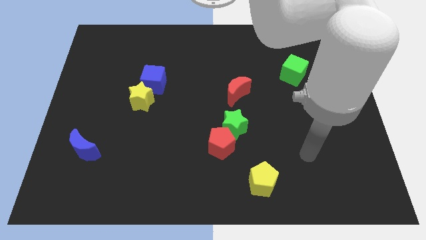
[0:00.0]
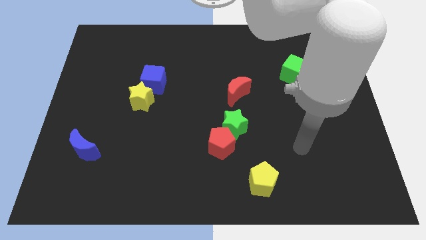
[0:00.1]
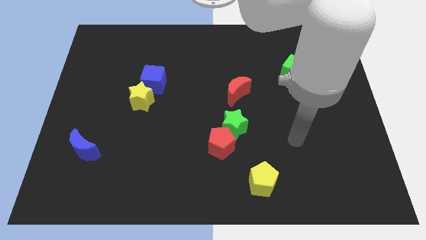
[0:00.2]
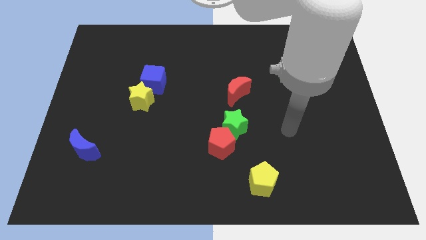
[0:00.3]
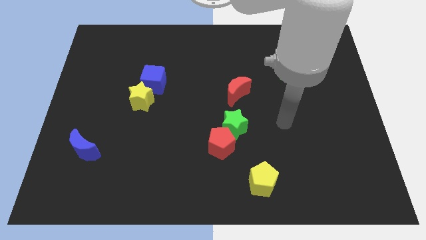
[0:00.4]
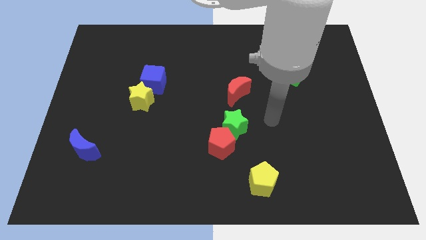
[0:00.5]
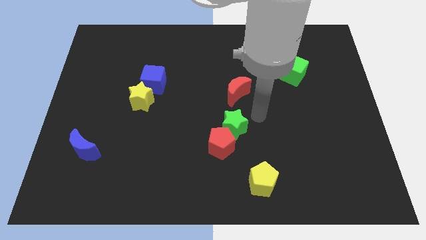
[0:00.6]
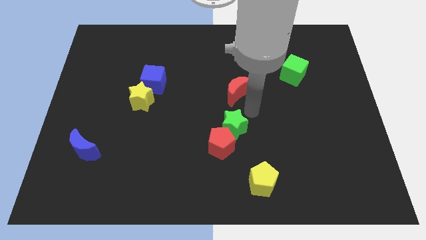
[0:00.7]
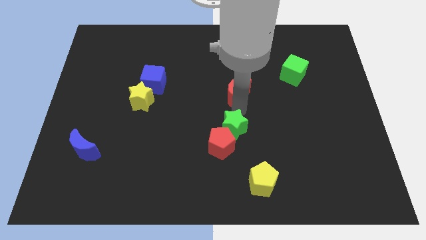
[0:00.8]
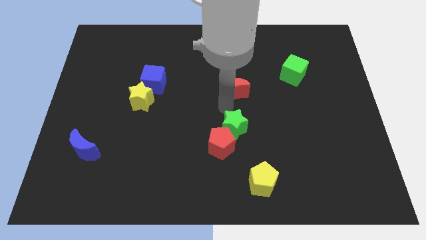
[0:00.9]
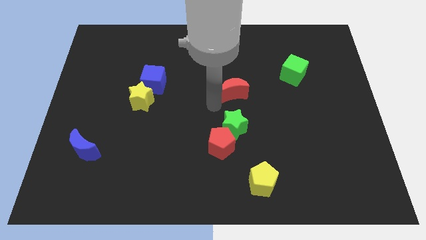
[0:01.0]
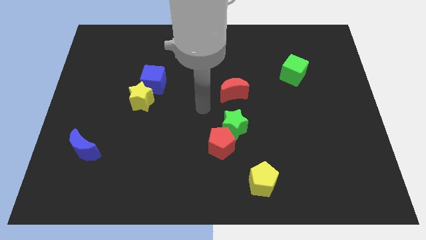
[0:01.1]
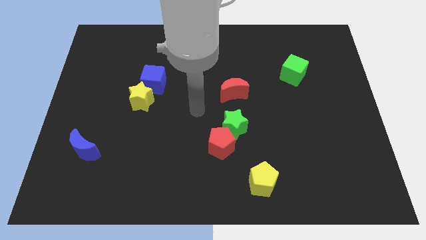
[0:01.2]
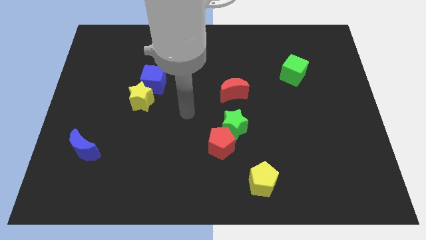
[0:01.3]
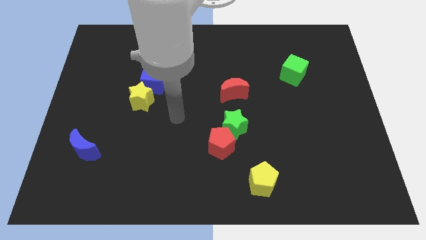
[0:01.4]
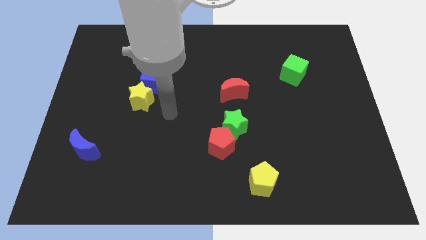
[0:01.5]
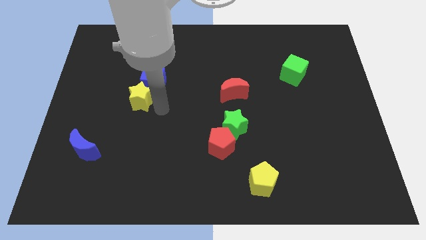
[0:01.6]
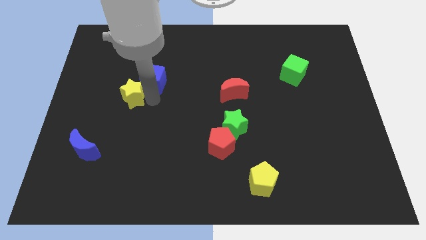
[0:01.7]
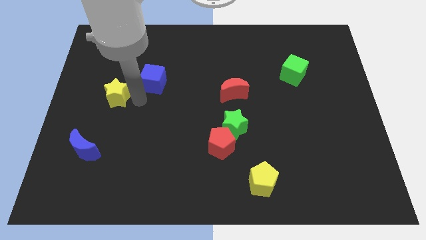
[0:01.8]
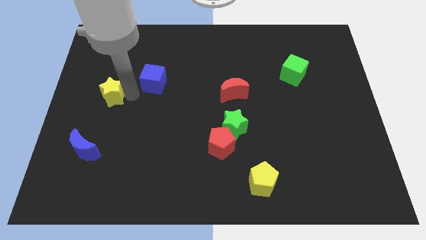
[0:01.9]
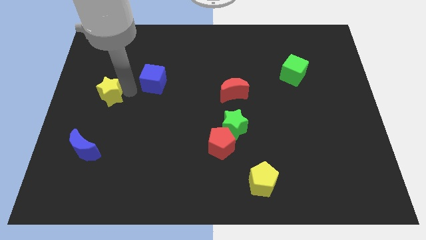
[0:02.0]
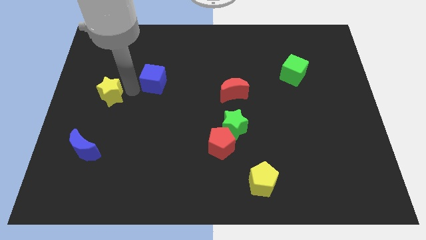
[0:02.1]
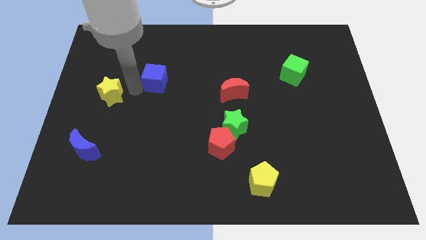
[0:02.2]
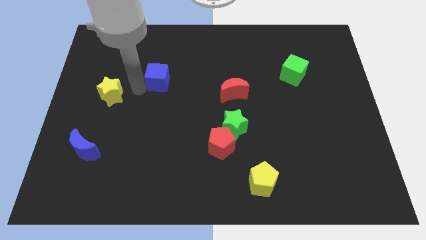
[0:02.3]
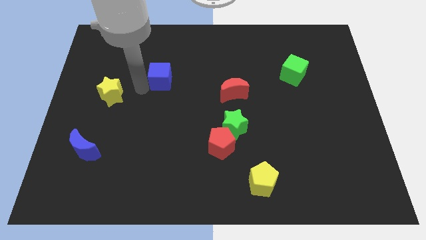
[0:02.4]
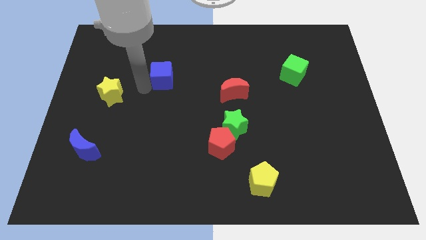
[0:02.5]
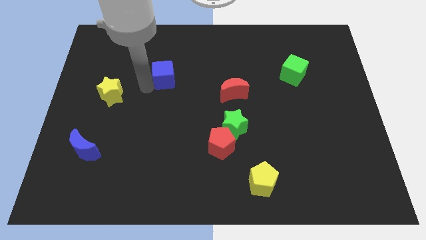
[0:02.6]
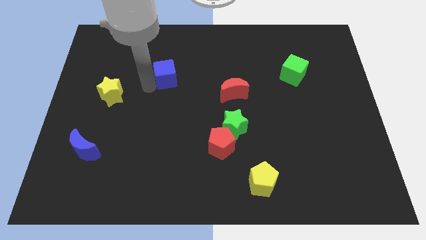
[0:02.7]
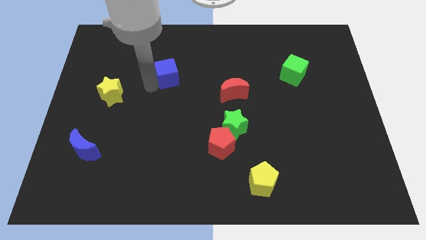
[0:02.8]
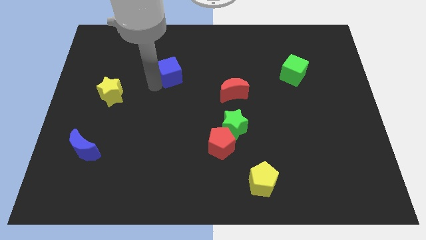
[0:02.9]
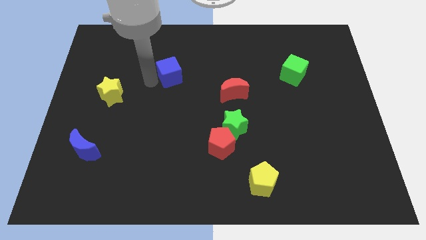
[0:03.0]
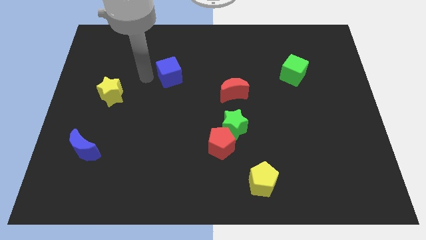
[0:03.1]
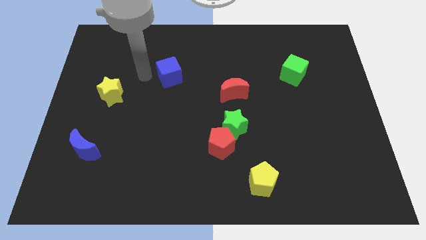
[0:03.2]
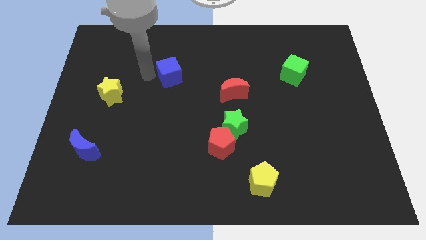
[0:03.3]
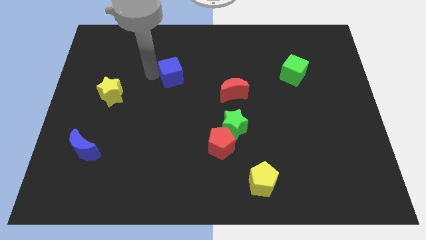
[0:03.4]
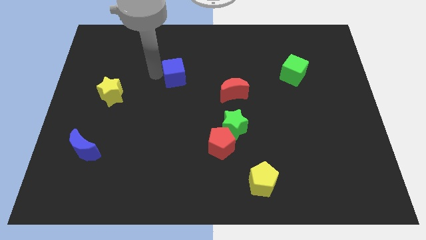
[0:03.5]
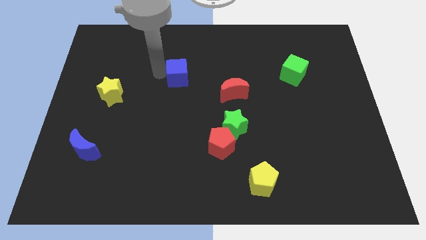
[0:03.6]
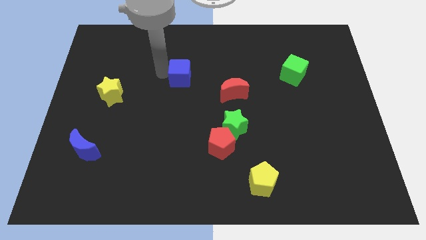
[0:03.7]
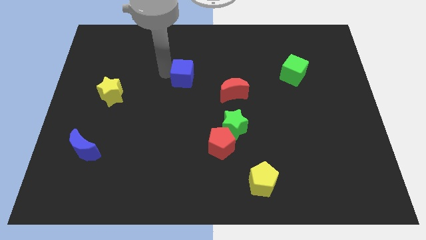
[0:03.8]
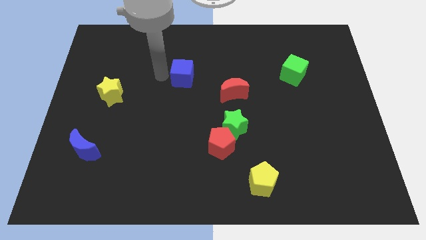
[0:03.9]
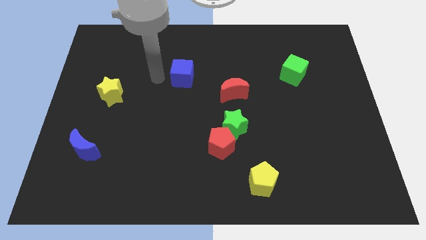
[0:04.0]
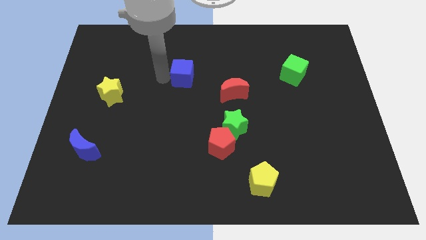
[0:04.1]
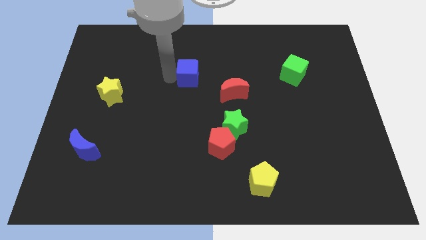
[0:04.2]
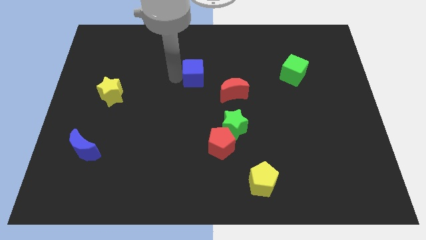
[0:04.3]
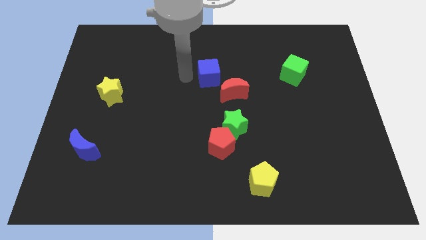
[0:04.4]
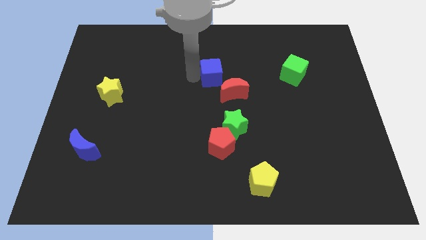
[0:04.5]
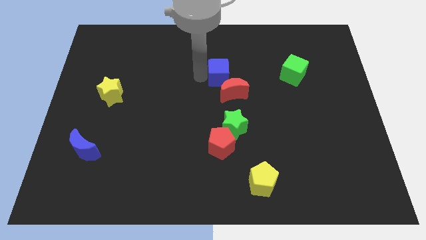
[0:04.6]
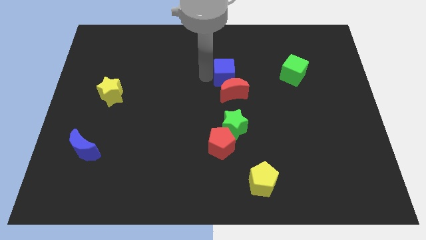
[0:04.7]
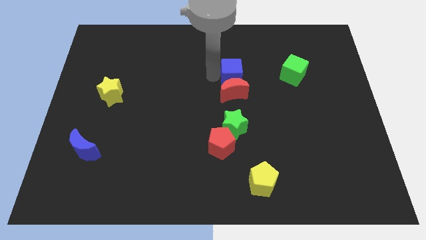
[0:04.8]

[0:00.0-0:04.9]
slide the blue cube to the top right side of the red moon

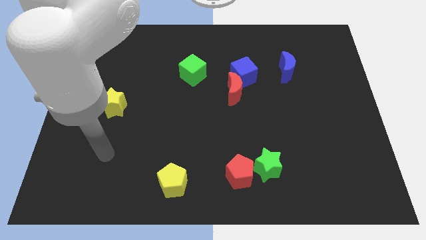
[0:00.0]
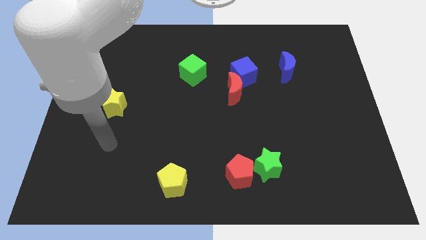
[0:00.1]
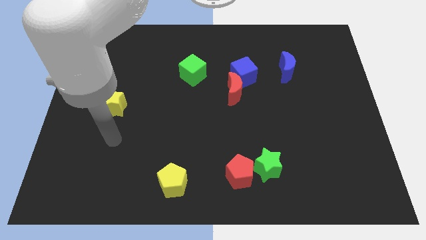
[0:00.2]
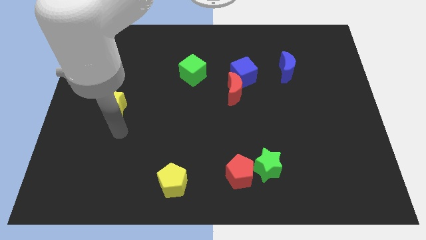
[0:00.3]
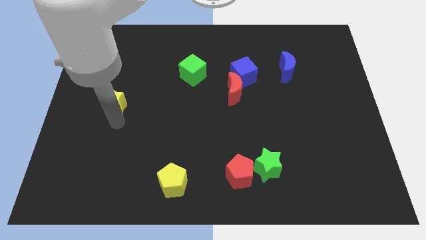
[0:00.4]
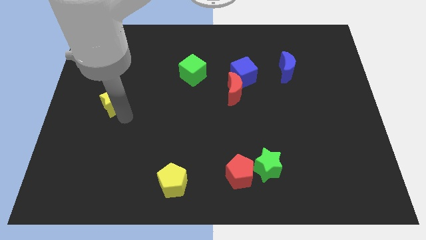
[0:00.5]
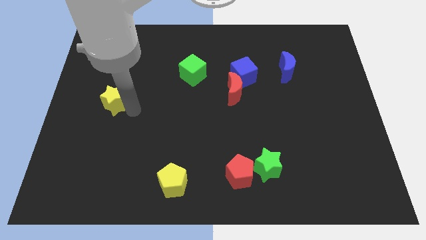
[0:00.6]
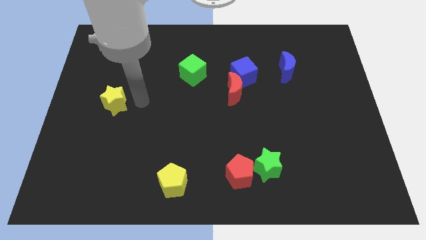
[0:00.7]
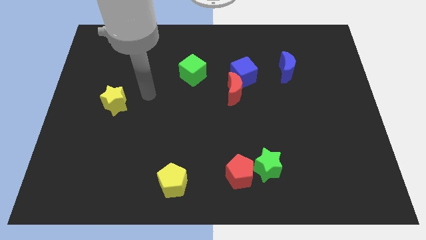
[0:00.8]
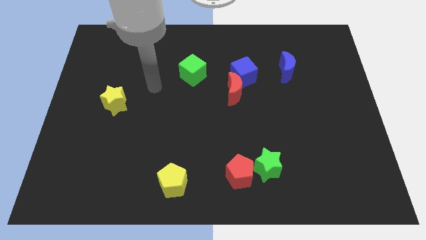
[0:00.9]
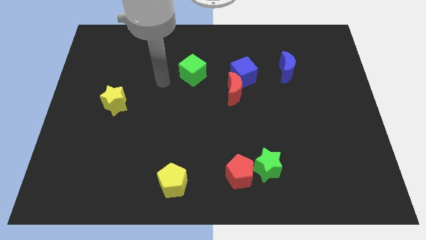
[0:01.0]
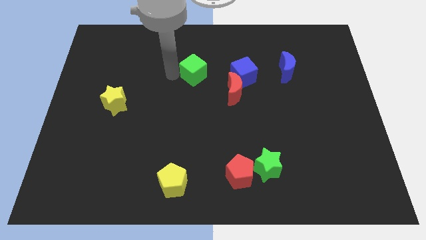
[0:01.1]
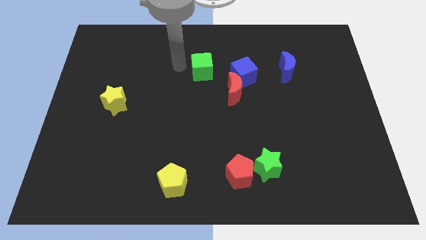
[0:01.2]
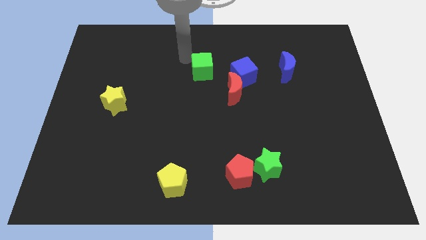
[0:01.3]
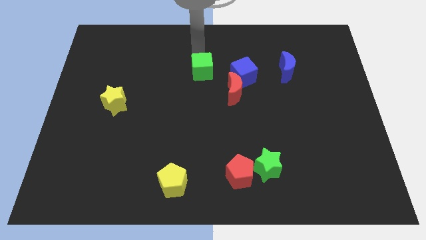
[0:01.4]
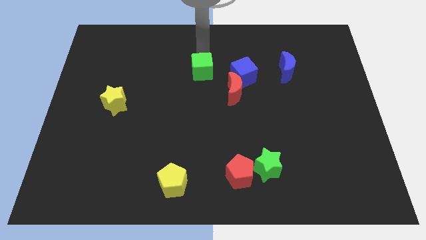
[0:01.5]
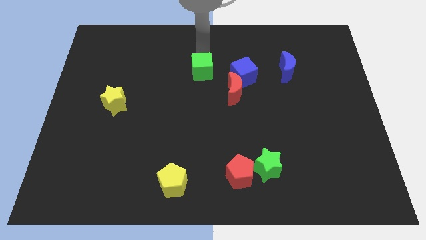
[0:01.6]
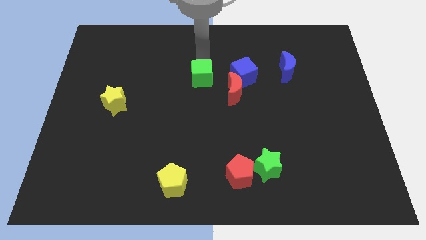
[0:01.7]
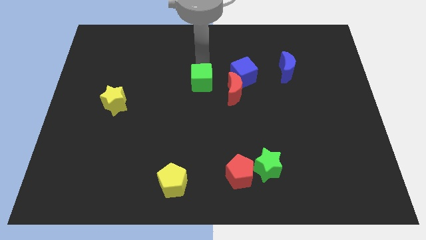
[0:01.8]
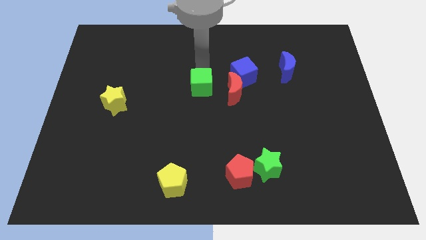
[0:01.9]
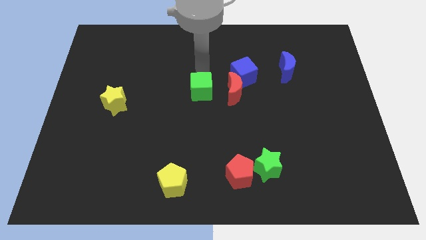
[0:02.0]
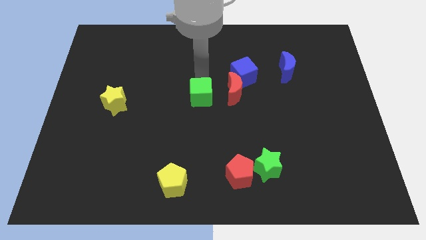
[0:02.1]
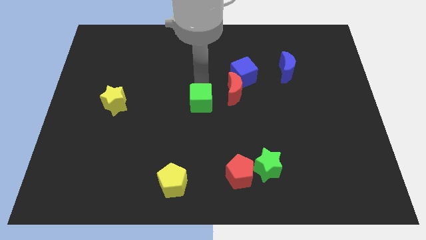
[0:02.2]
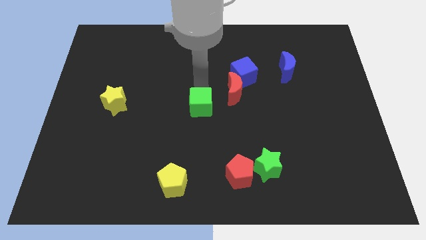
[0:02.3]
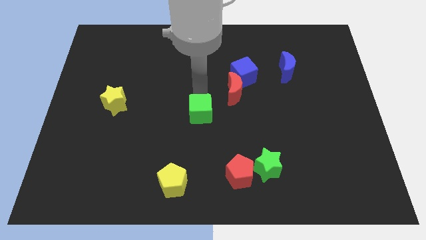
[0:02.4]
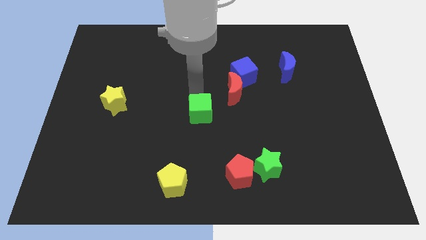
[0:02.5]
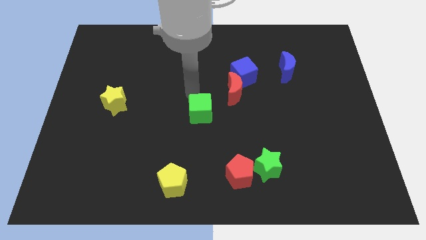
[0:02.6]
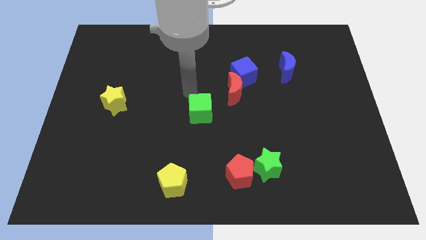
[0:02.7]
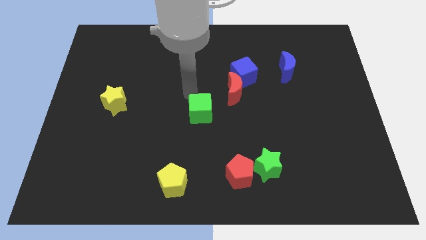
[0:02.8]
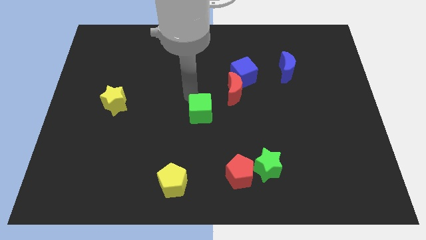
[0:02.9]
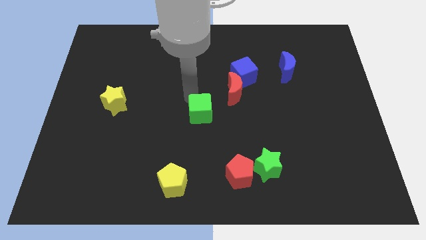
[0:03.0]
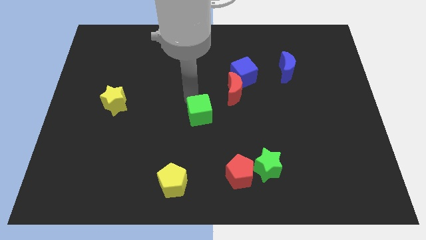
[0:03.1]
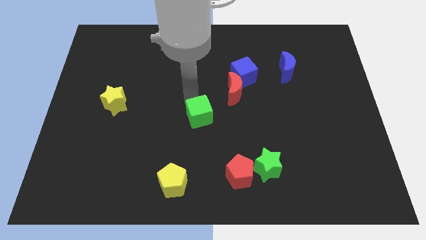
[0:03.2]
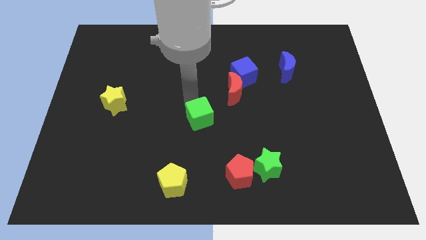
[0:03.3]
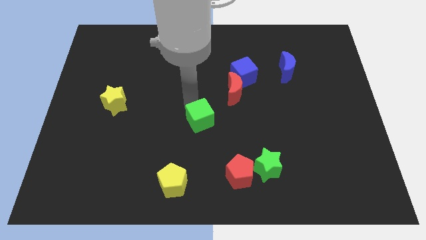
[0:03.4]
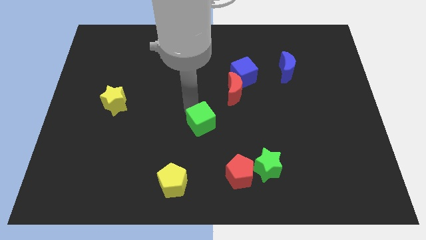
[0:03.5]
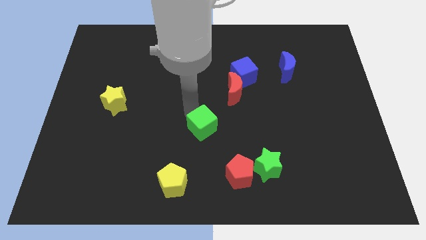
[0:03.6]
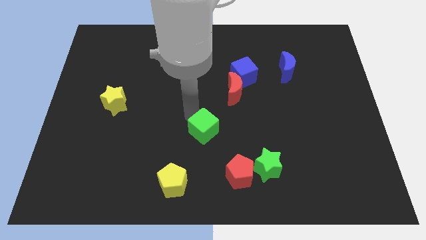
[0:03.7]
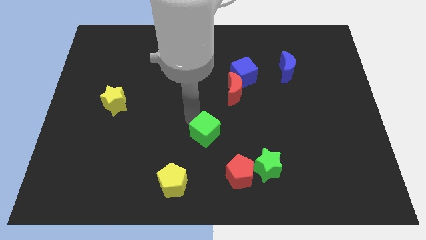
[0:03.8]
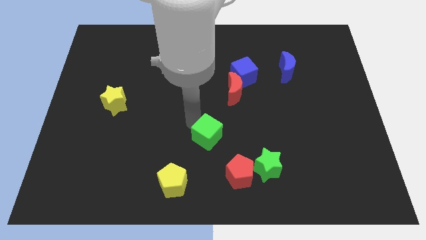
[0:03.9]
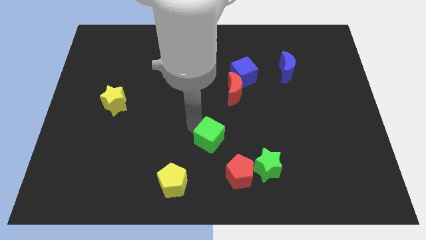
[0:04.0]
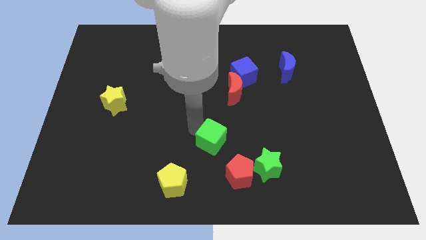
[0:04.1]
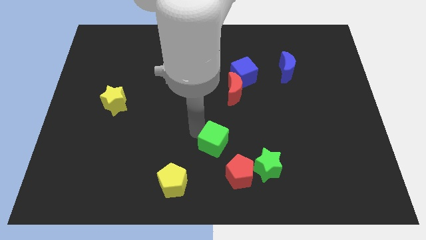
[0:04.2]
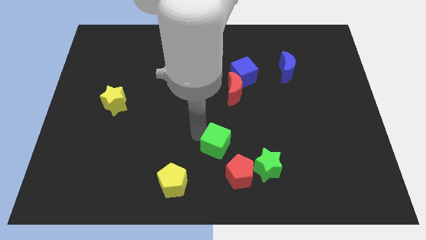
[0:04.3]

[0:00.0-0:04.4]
put the green cube to the top left of the green star
